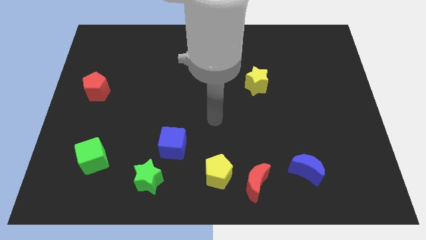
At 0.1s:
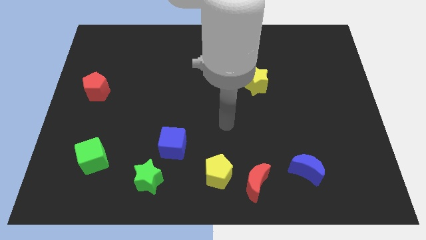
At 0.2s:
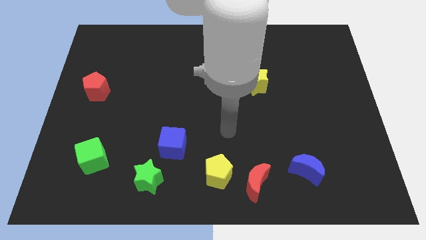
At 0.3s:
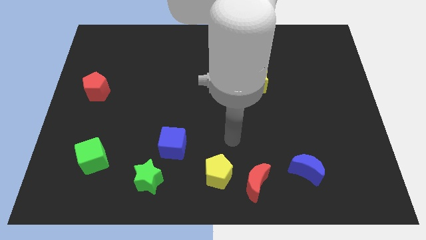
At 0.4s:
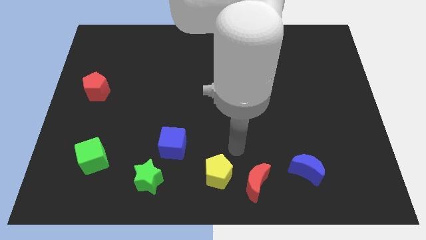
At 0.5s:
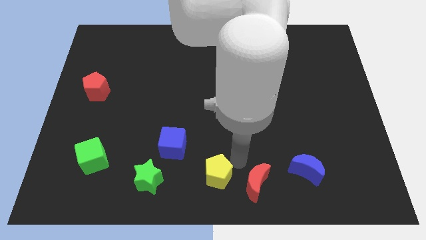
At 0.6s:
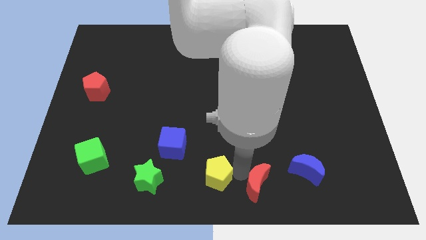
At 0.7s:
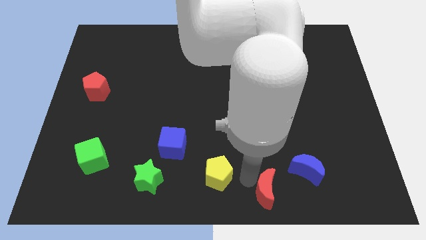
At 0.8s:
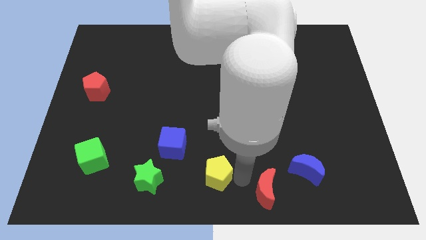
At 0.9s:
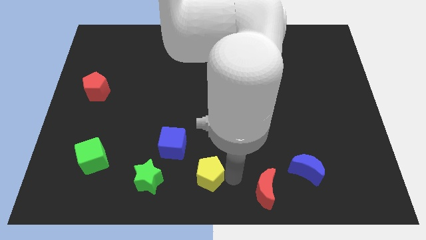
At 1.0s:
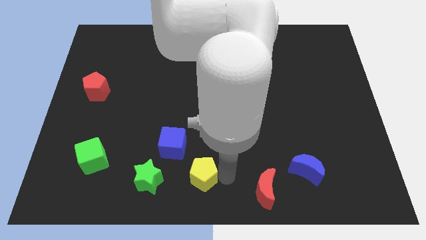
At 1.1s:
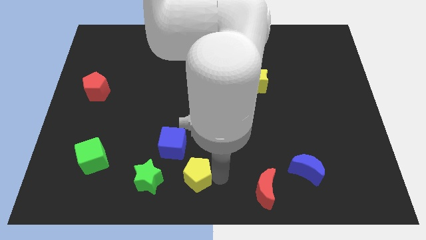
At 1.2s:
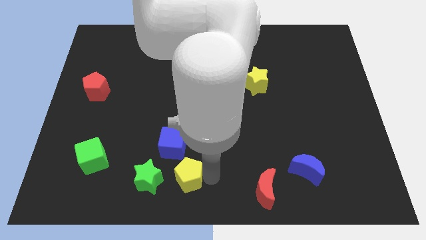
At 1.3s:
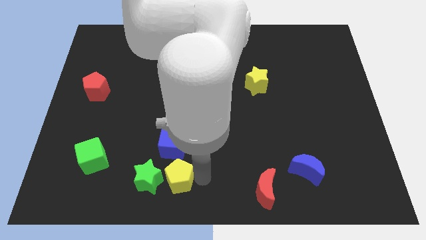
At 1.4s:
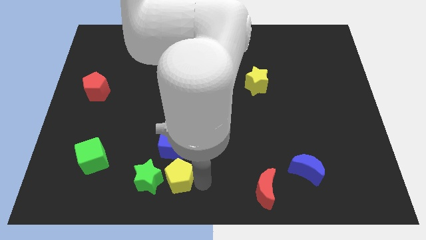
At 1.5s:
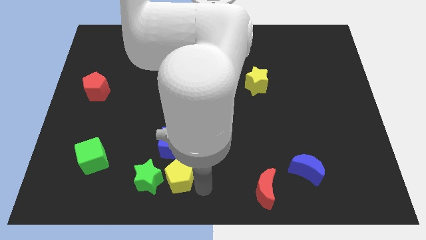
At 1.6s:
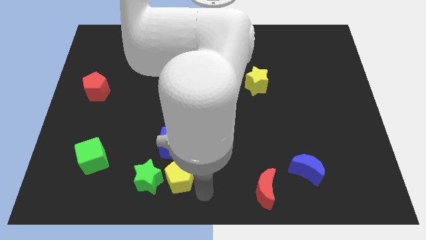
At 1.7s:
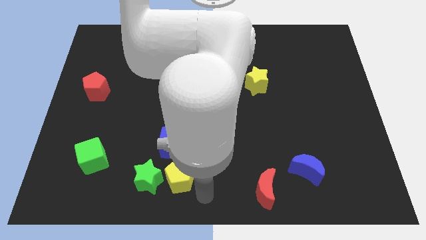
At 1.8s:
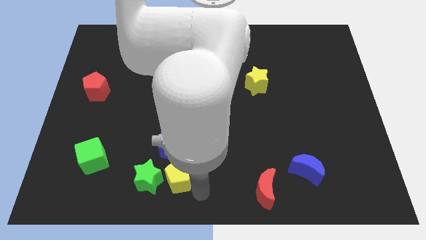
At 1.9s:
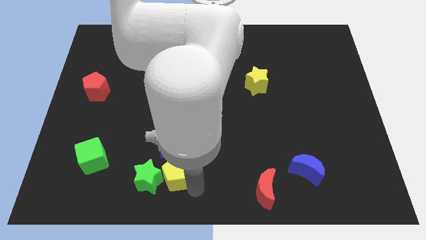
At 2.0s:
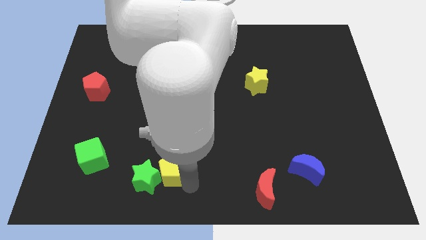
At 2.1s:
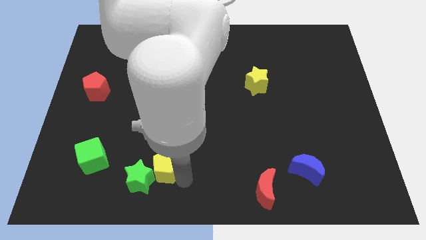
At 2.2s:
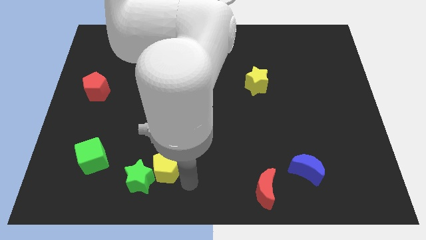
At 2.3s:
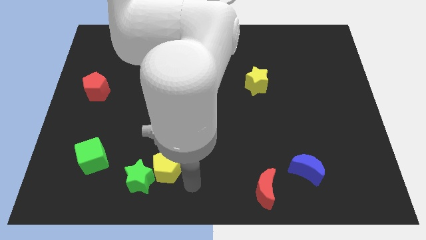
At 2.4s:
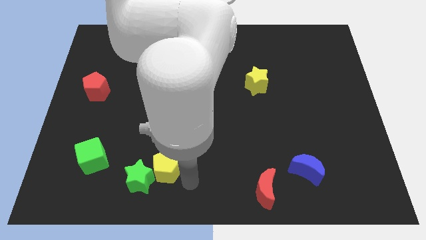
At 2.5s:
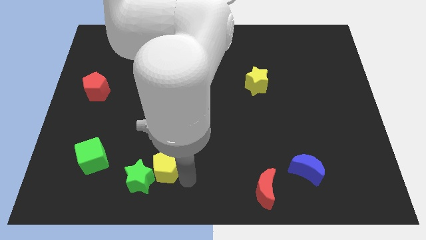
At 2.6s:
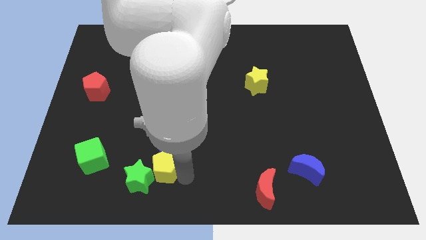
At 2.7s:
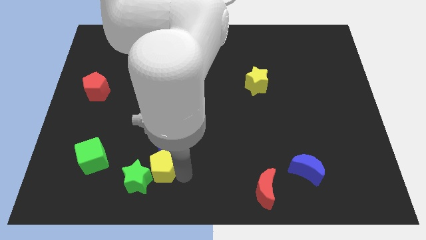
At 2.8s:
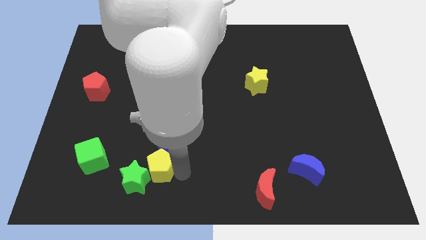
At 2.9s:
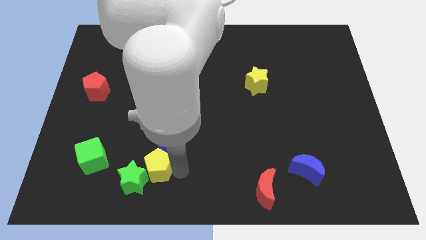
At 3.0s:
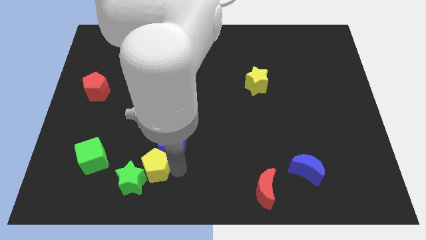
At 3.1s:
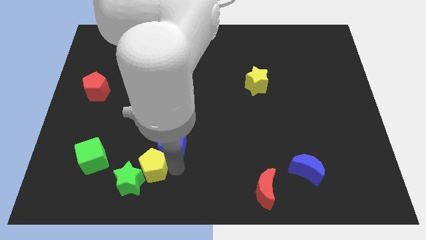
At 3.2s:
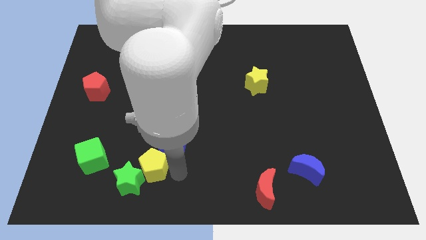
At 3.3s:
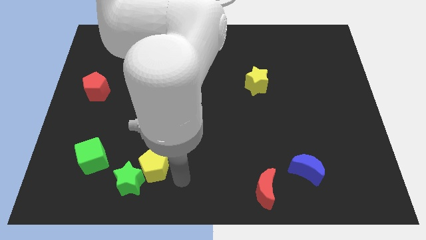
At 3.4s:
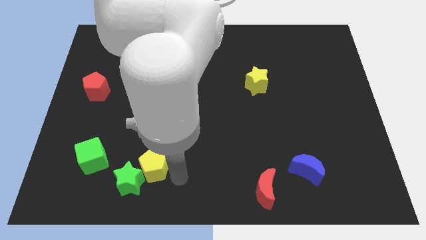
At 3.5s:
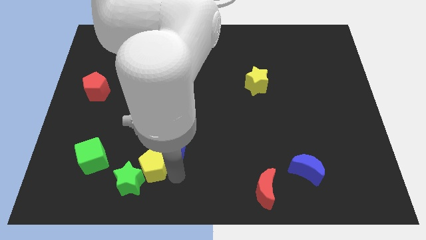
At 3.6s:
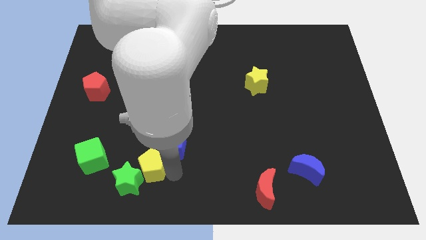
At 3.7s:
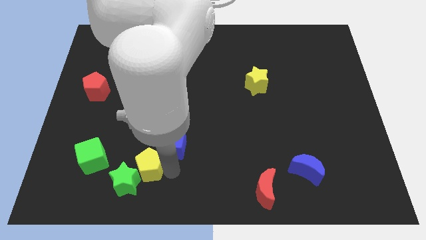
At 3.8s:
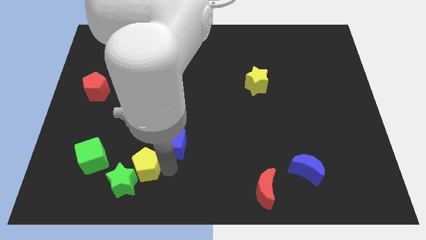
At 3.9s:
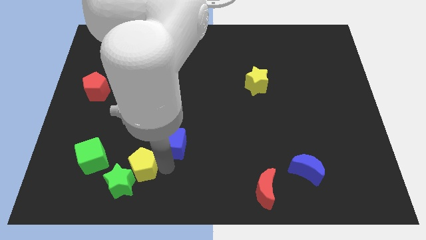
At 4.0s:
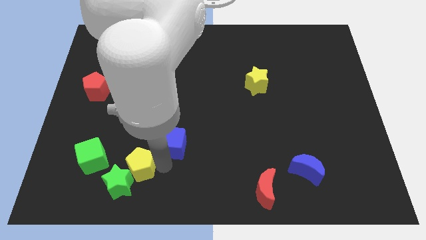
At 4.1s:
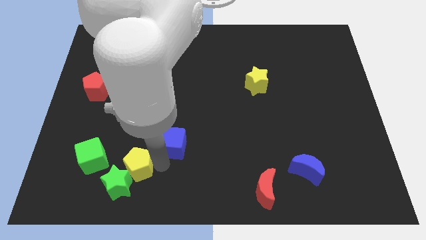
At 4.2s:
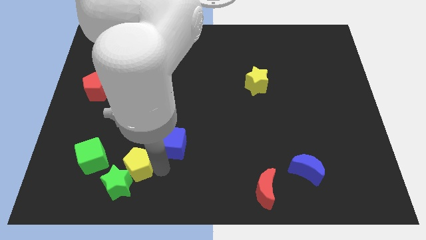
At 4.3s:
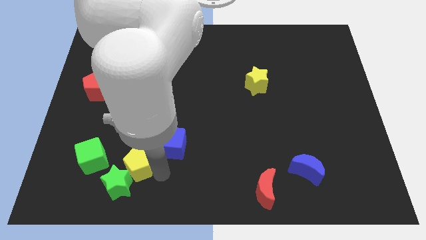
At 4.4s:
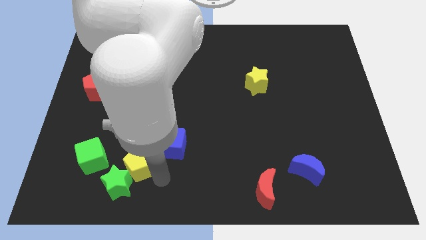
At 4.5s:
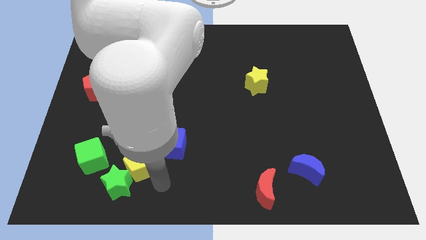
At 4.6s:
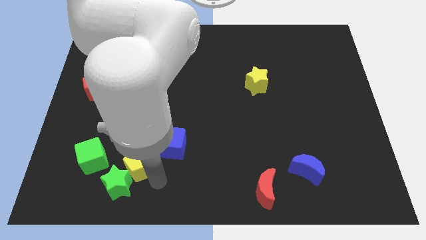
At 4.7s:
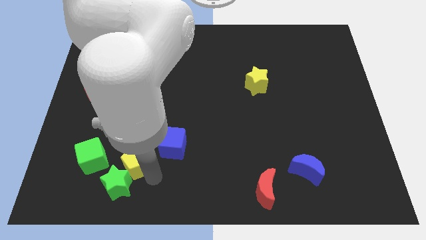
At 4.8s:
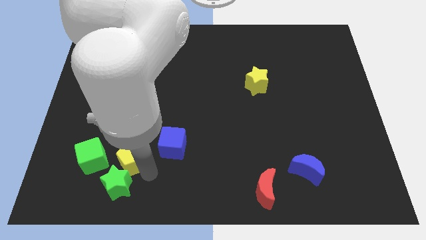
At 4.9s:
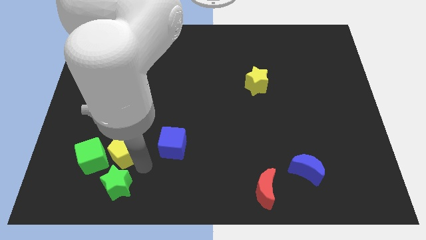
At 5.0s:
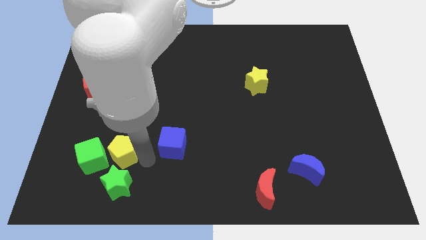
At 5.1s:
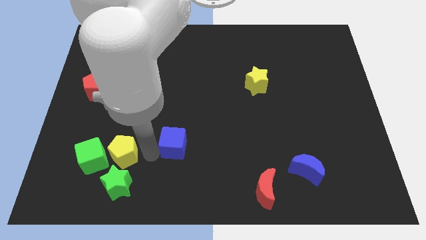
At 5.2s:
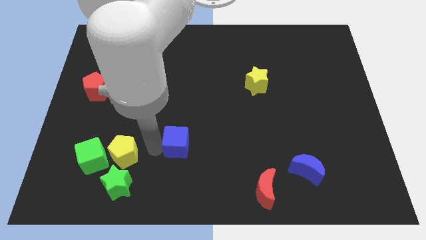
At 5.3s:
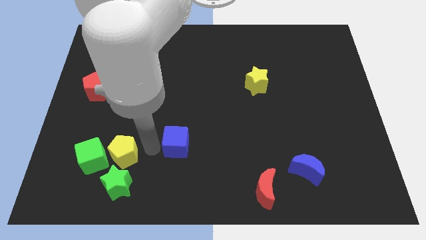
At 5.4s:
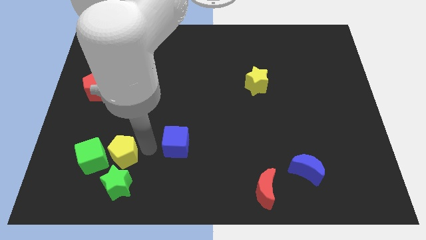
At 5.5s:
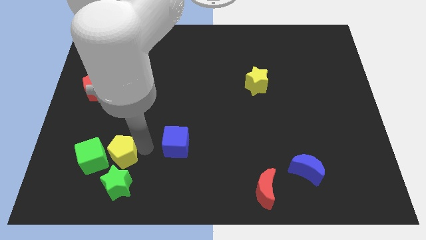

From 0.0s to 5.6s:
push the yellow pentagon close to the green cube

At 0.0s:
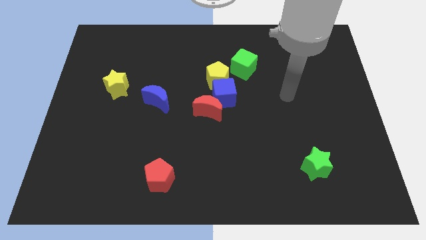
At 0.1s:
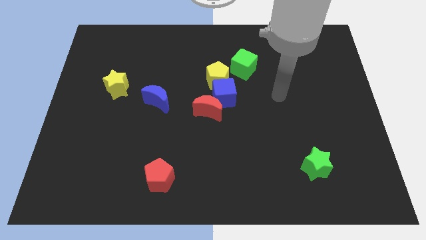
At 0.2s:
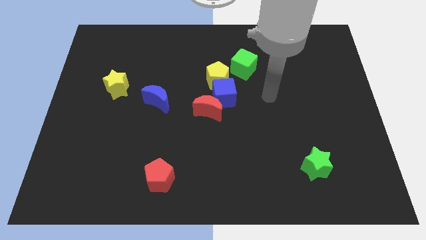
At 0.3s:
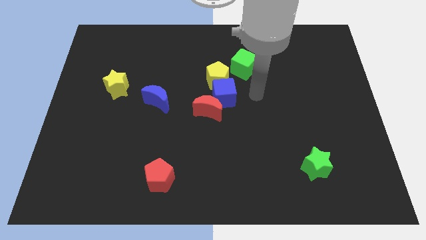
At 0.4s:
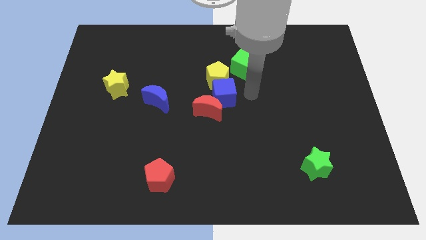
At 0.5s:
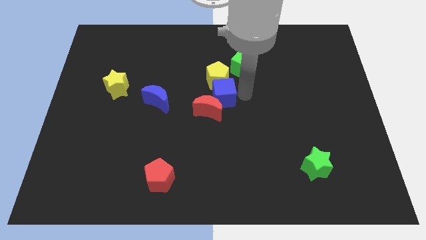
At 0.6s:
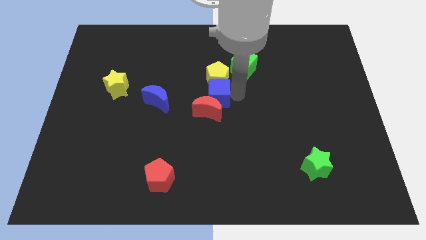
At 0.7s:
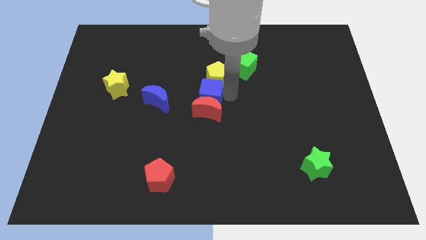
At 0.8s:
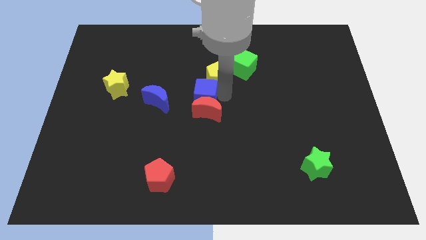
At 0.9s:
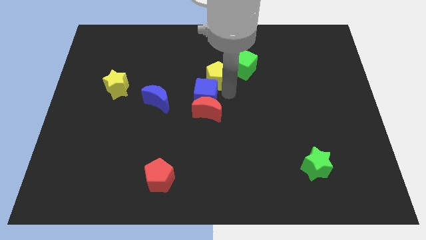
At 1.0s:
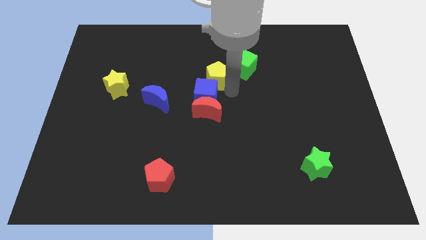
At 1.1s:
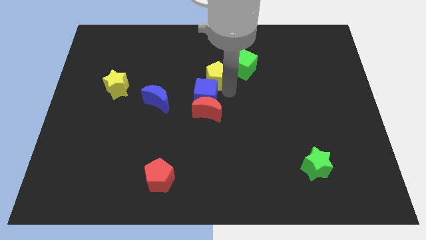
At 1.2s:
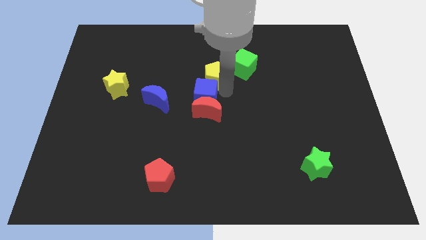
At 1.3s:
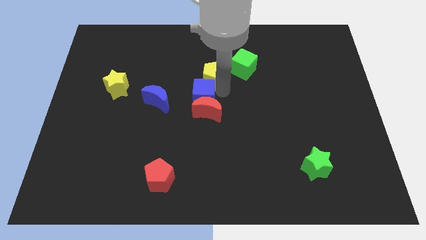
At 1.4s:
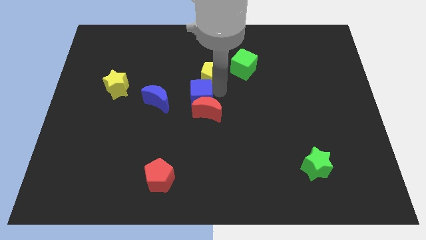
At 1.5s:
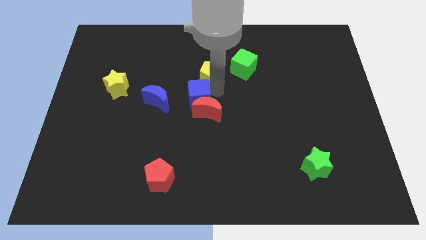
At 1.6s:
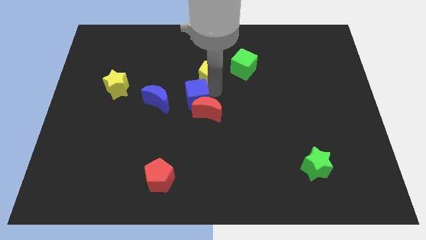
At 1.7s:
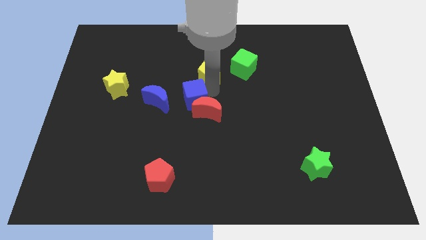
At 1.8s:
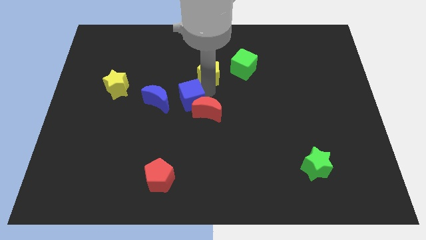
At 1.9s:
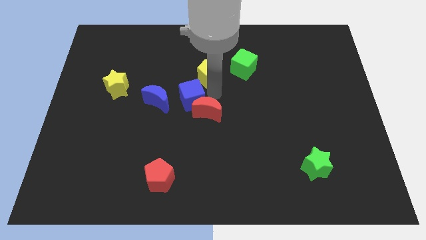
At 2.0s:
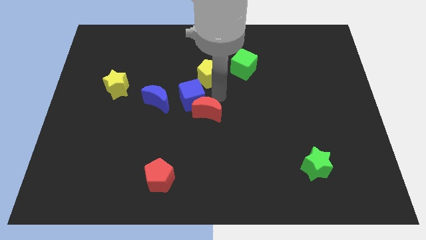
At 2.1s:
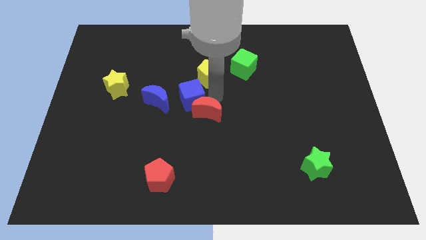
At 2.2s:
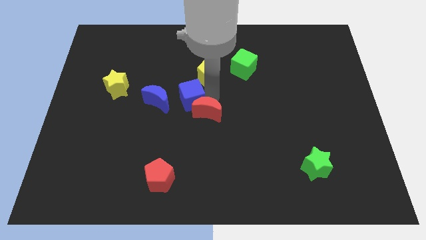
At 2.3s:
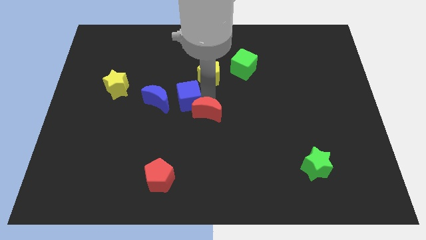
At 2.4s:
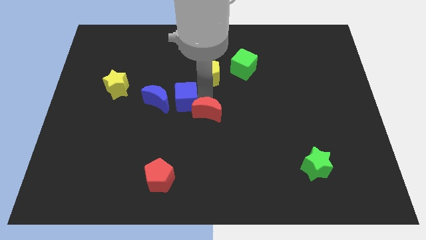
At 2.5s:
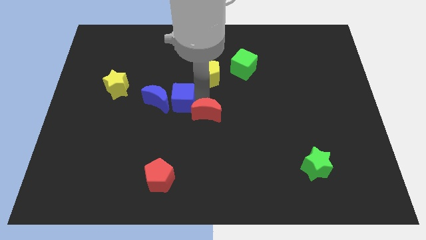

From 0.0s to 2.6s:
slide the blue cube next to the blue moon
